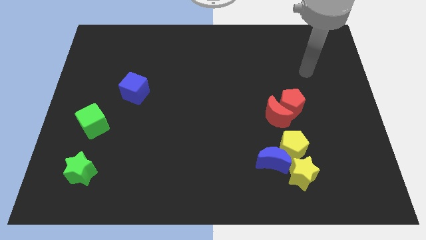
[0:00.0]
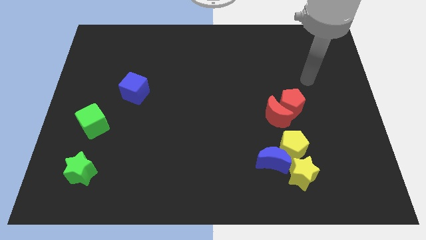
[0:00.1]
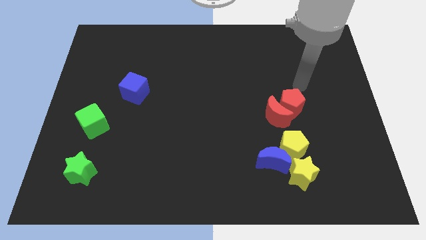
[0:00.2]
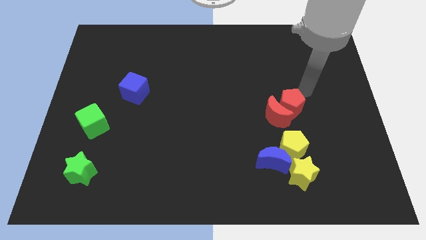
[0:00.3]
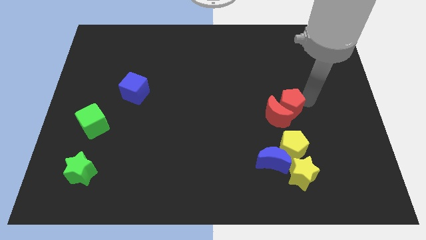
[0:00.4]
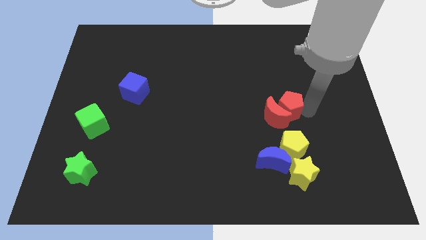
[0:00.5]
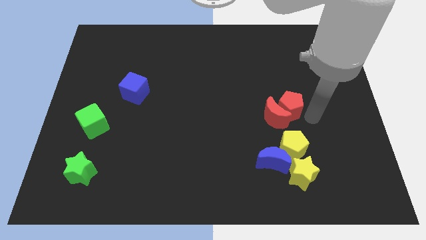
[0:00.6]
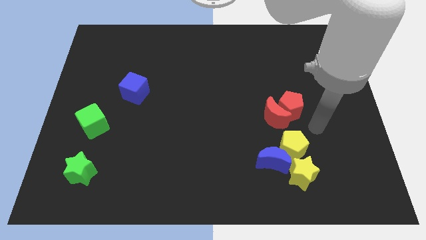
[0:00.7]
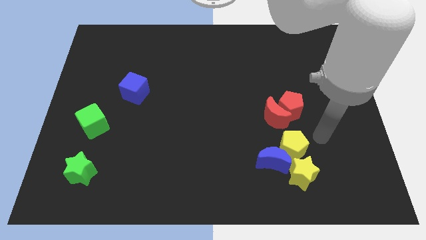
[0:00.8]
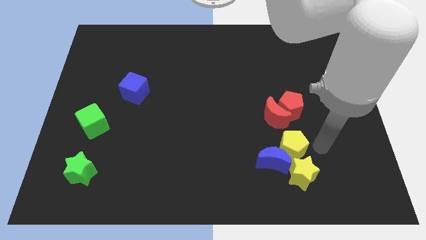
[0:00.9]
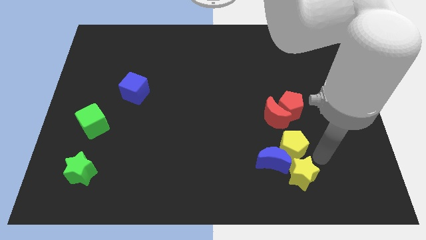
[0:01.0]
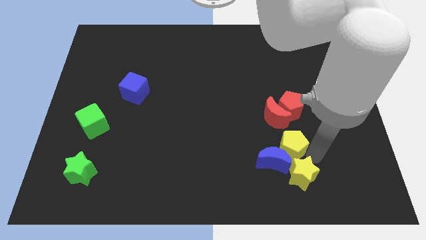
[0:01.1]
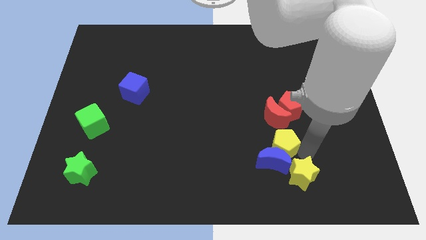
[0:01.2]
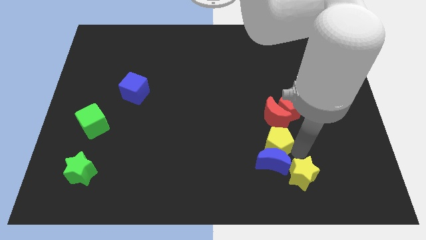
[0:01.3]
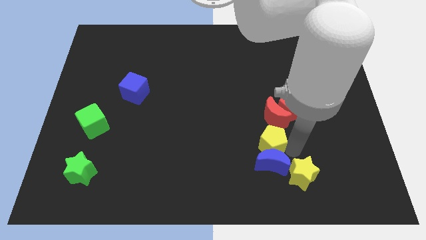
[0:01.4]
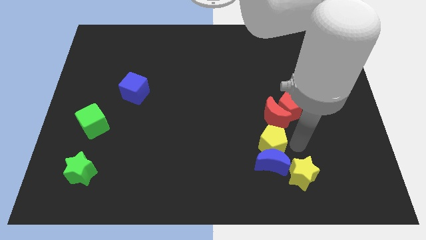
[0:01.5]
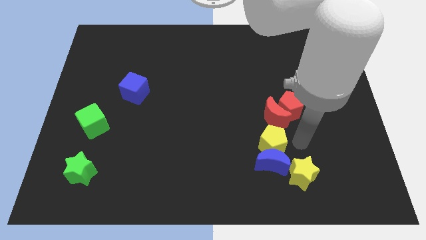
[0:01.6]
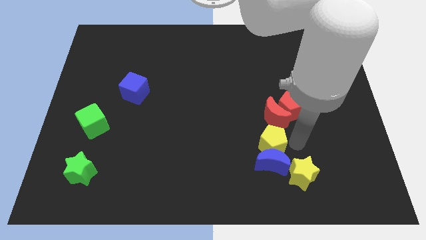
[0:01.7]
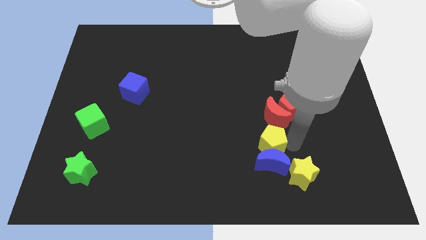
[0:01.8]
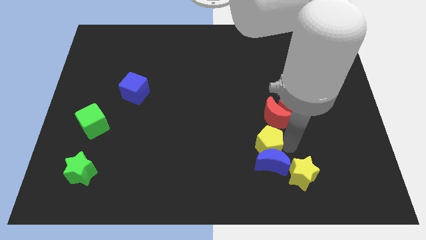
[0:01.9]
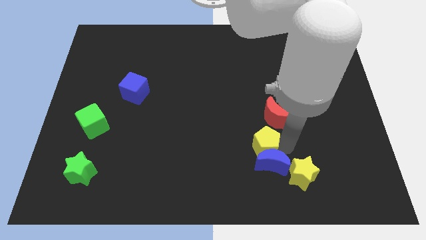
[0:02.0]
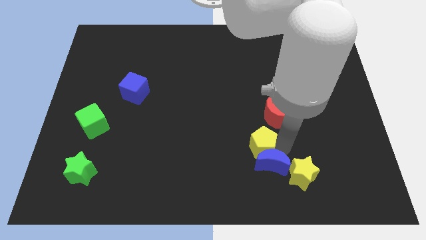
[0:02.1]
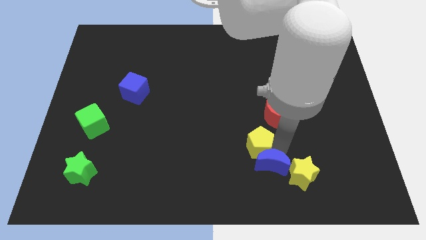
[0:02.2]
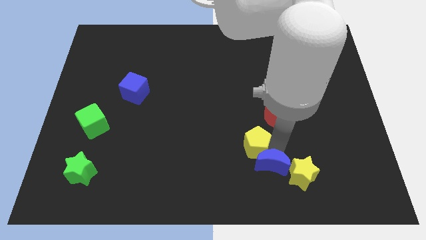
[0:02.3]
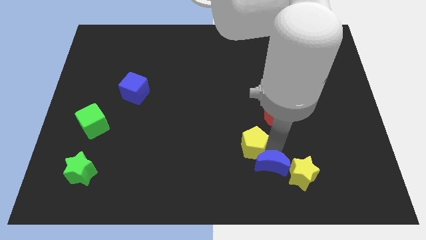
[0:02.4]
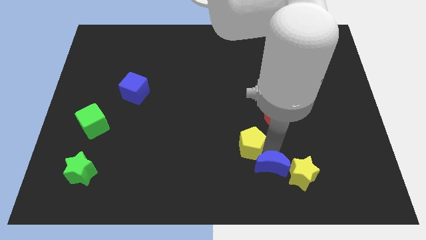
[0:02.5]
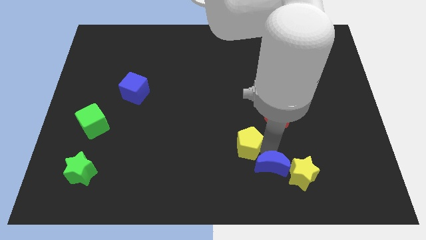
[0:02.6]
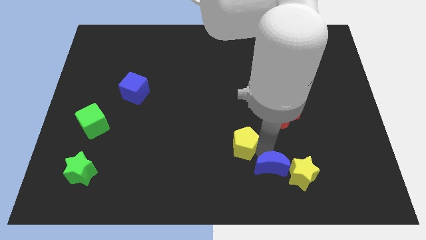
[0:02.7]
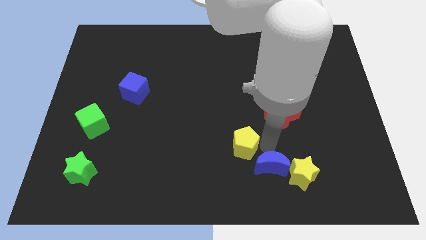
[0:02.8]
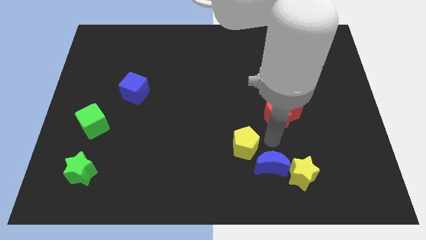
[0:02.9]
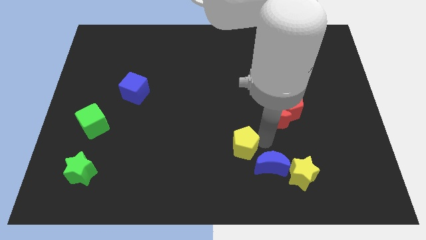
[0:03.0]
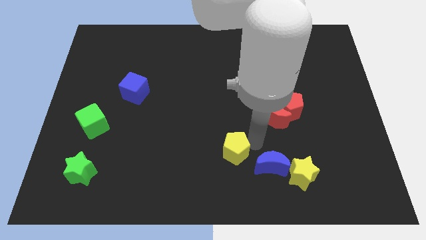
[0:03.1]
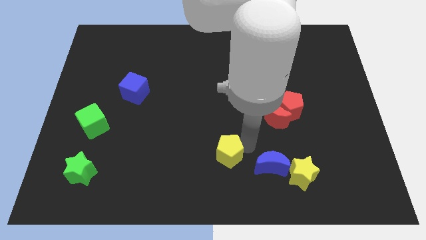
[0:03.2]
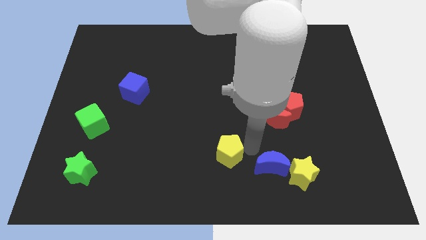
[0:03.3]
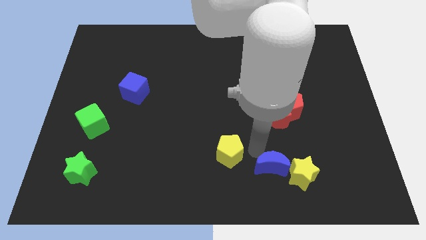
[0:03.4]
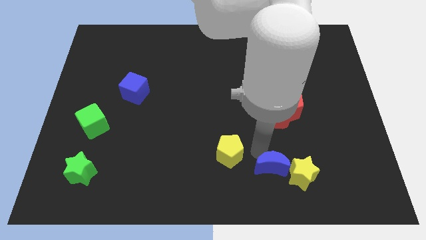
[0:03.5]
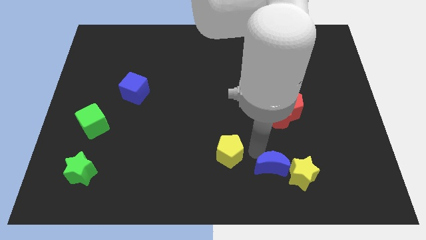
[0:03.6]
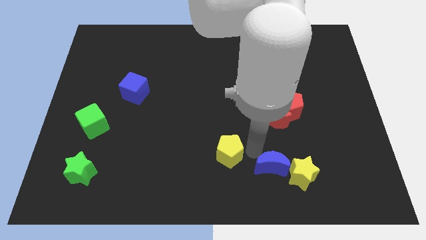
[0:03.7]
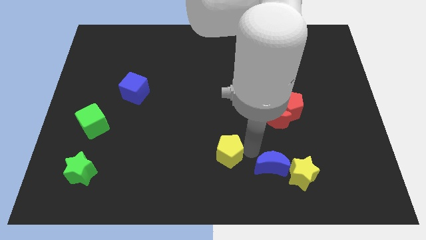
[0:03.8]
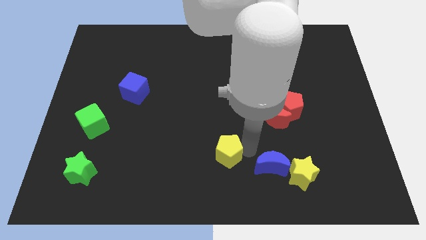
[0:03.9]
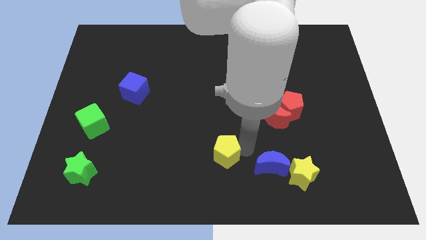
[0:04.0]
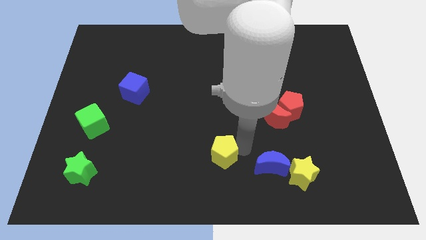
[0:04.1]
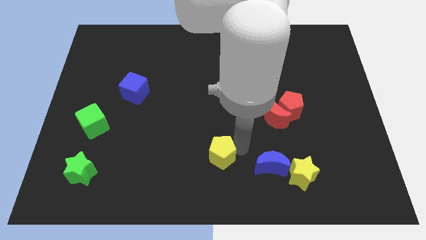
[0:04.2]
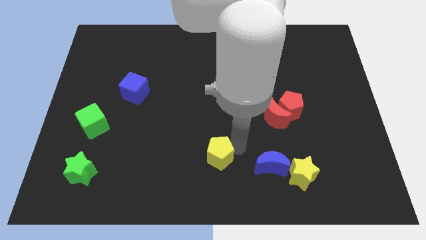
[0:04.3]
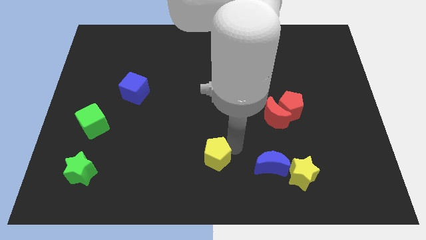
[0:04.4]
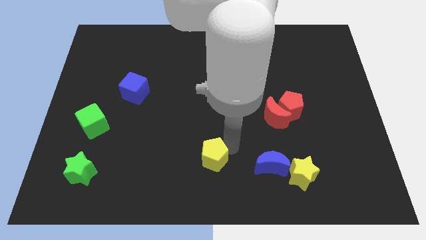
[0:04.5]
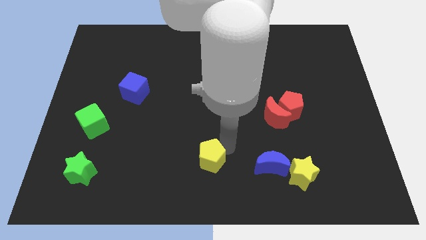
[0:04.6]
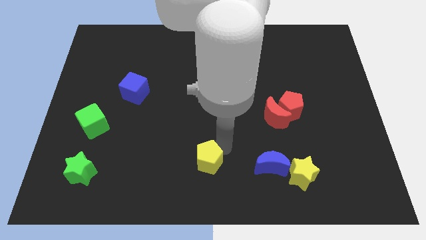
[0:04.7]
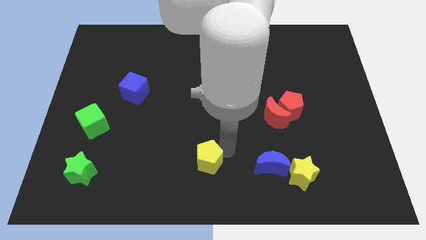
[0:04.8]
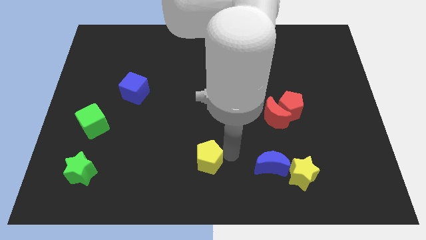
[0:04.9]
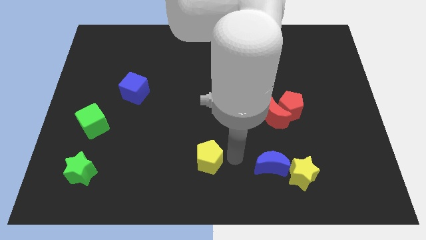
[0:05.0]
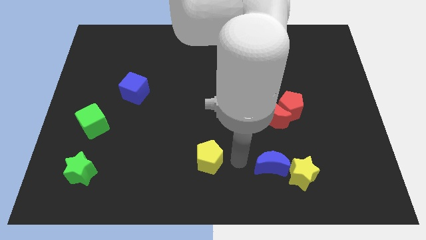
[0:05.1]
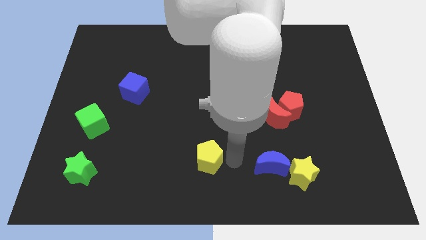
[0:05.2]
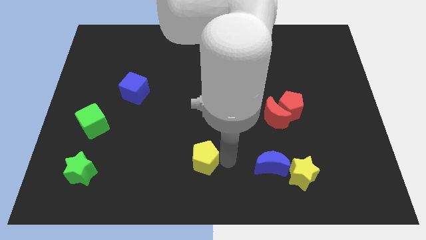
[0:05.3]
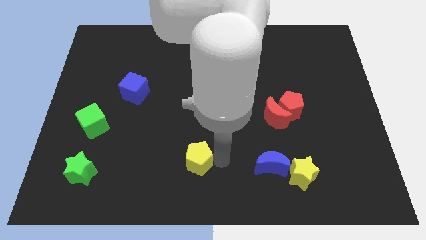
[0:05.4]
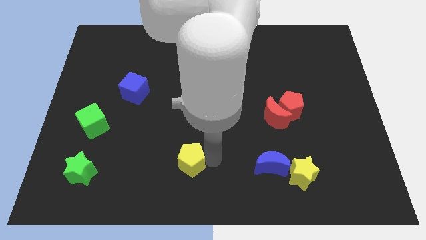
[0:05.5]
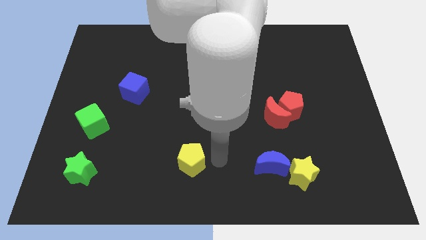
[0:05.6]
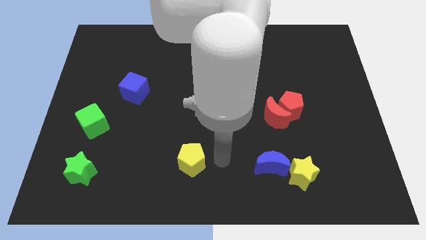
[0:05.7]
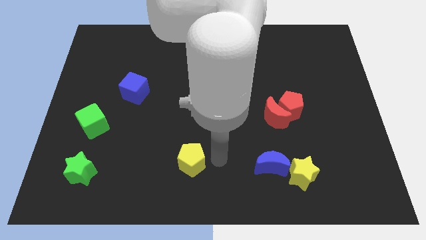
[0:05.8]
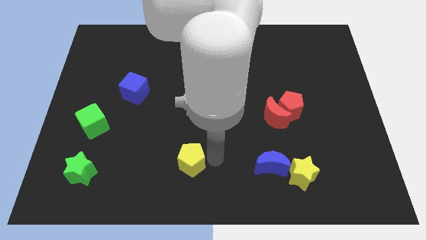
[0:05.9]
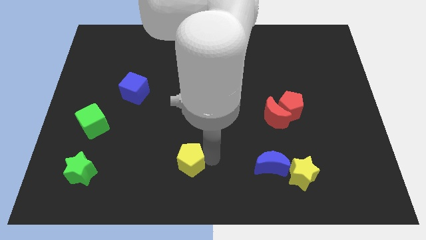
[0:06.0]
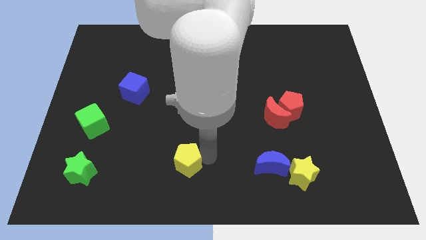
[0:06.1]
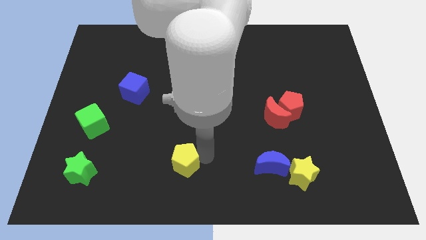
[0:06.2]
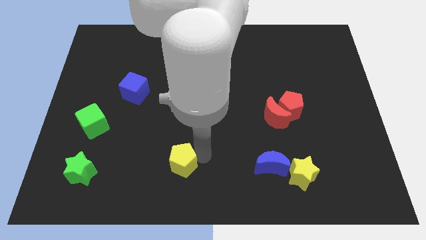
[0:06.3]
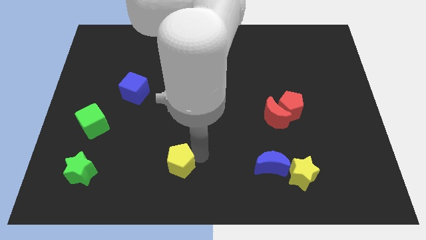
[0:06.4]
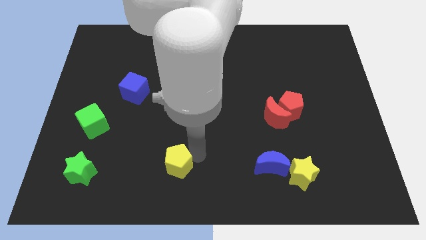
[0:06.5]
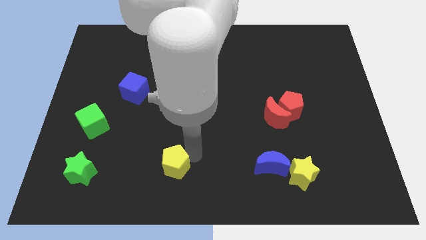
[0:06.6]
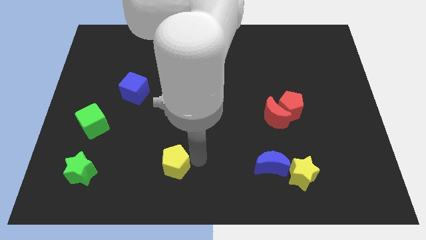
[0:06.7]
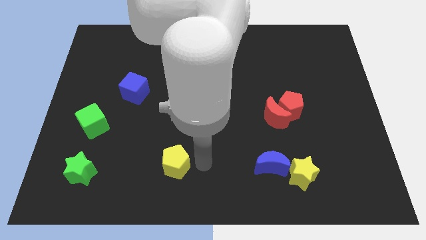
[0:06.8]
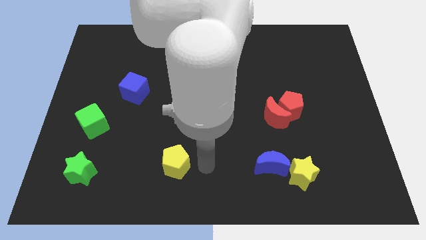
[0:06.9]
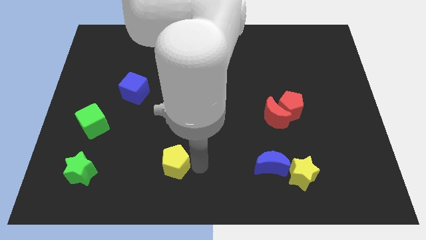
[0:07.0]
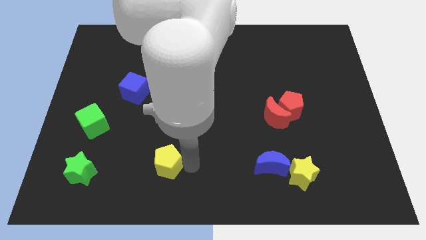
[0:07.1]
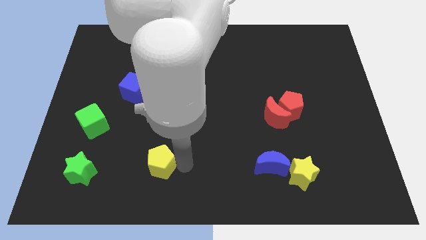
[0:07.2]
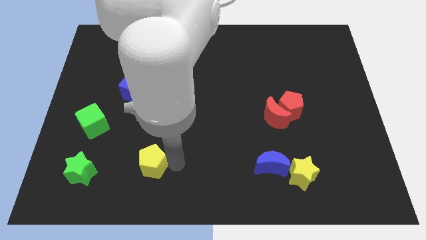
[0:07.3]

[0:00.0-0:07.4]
move the yellow pentagon just right of the green star
